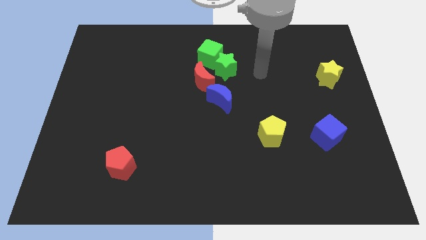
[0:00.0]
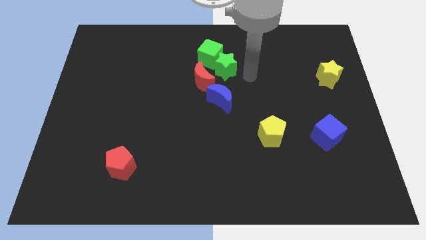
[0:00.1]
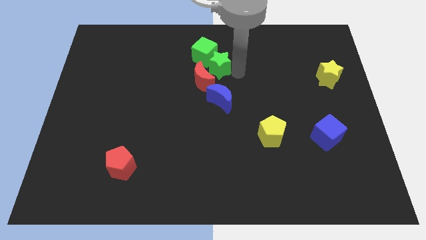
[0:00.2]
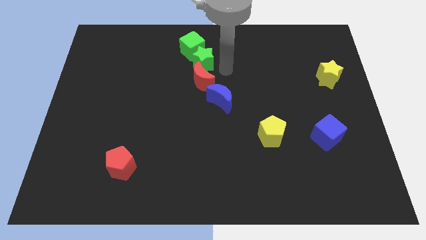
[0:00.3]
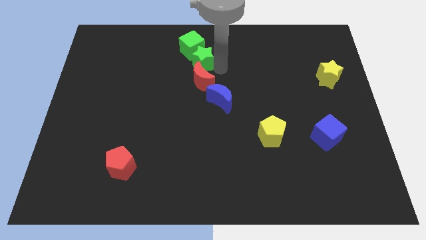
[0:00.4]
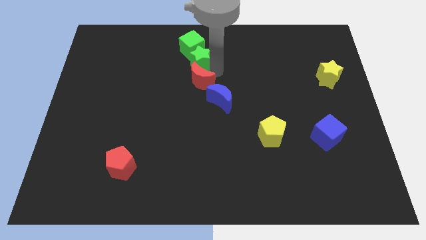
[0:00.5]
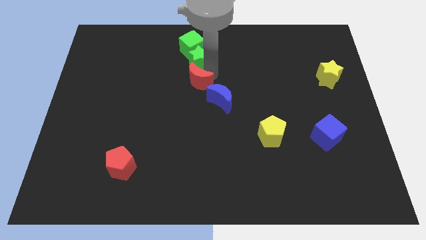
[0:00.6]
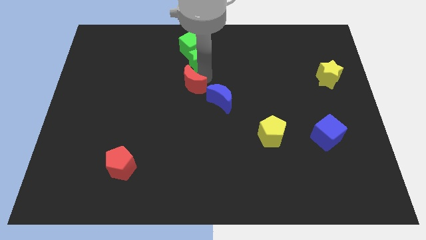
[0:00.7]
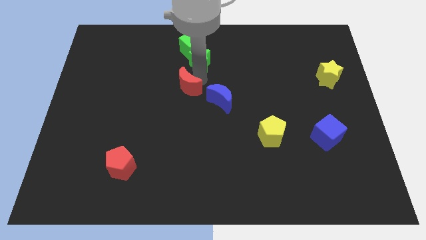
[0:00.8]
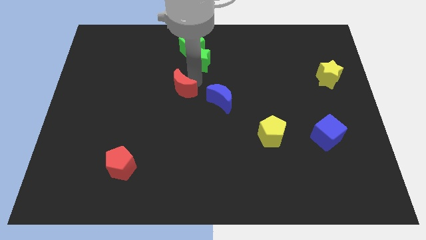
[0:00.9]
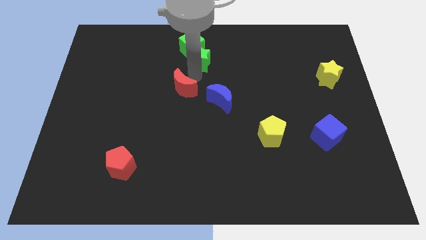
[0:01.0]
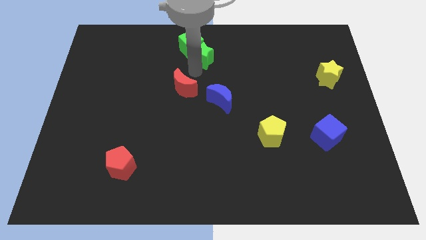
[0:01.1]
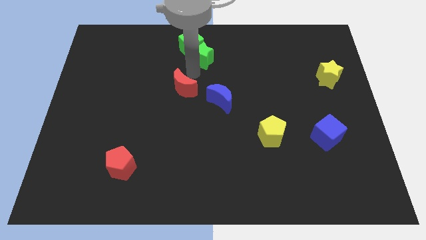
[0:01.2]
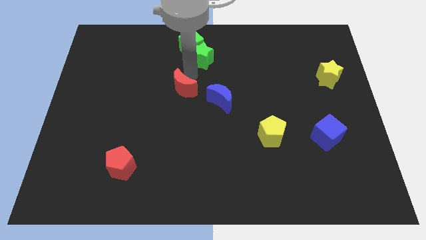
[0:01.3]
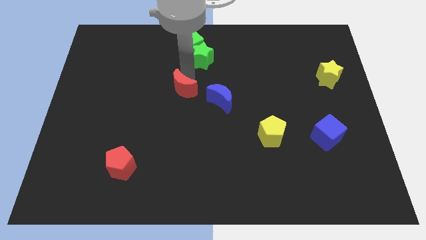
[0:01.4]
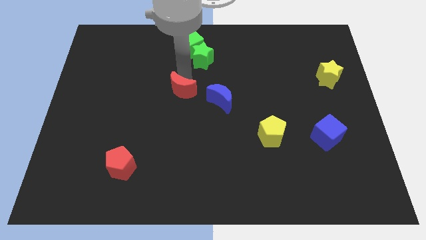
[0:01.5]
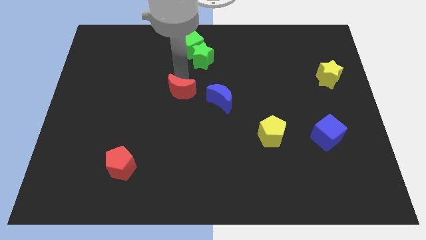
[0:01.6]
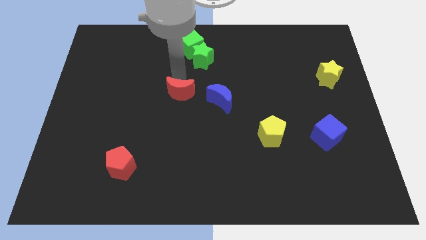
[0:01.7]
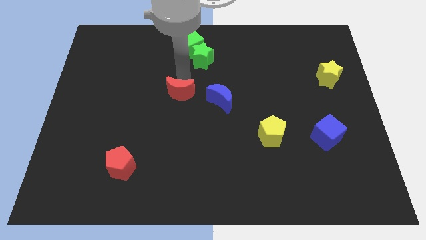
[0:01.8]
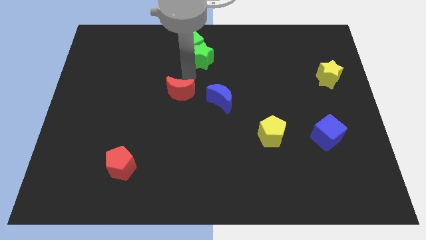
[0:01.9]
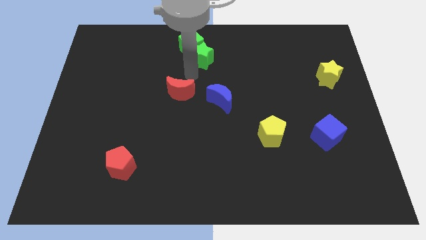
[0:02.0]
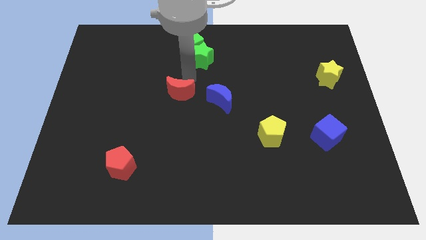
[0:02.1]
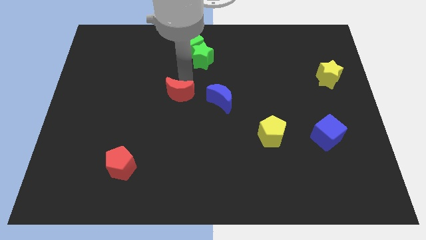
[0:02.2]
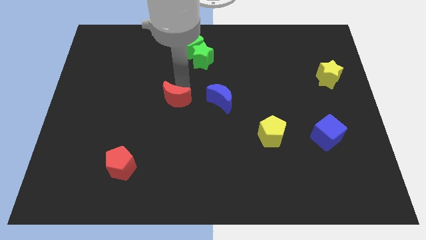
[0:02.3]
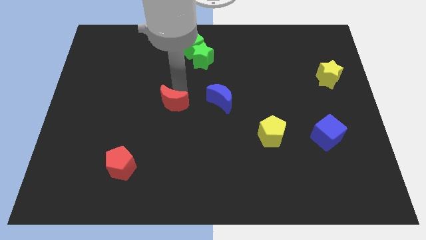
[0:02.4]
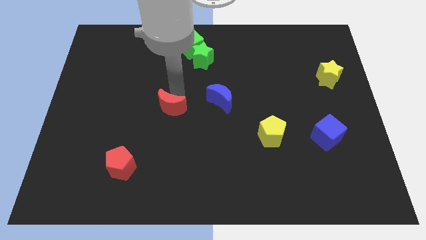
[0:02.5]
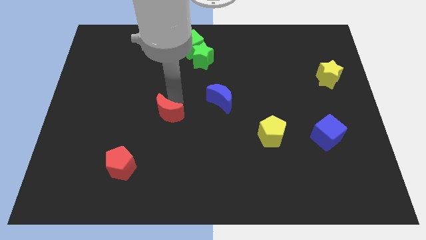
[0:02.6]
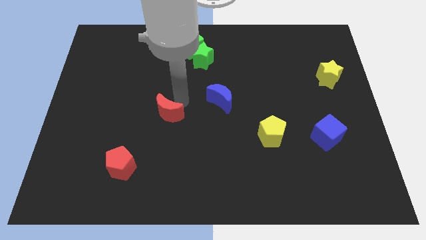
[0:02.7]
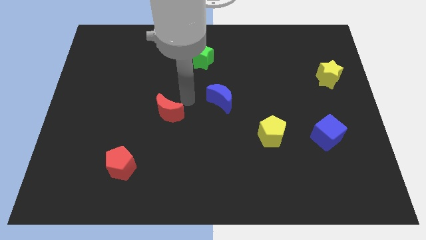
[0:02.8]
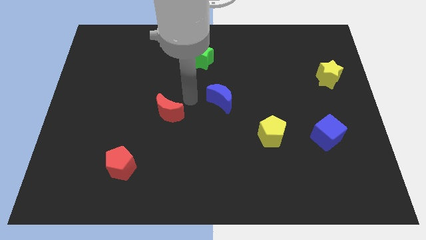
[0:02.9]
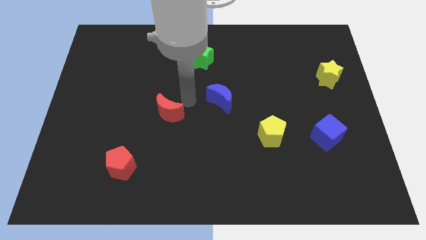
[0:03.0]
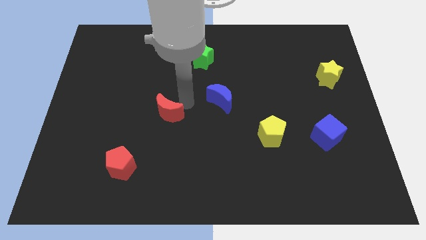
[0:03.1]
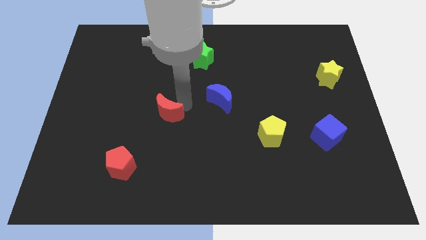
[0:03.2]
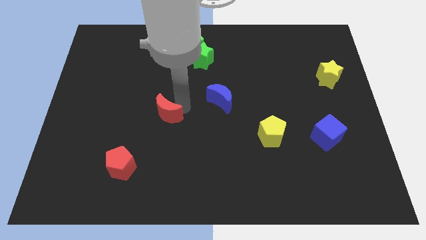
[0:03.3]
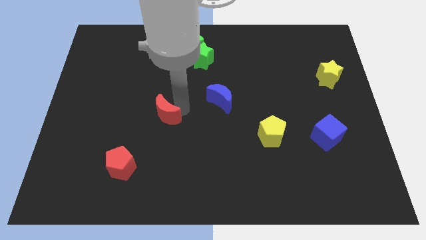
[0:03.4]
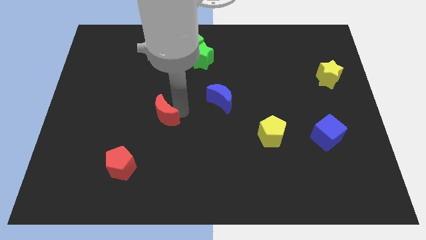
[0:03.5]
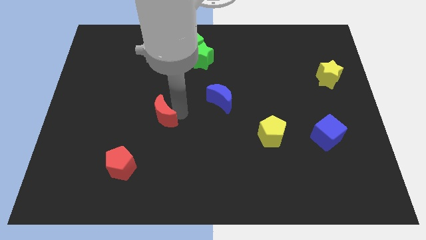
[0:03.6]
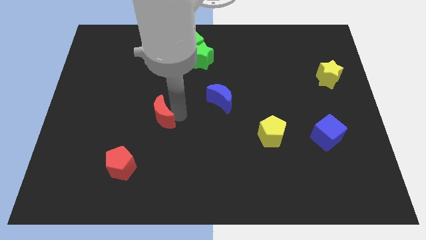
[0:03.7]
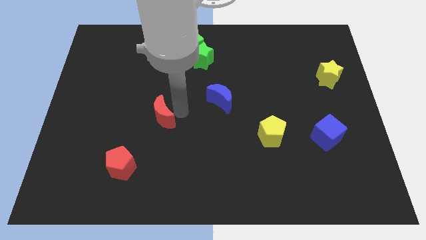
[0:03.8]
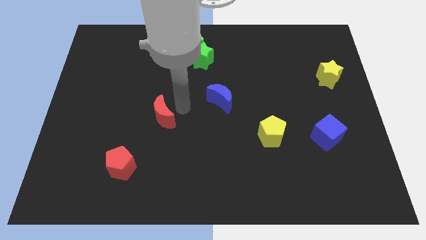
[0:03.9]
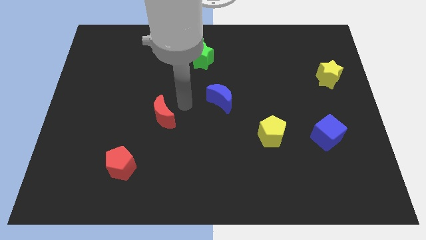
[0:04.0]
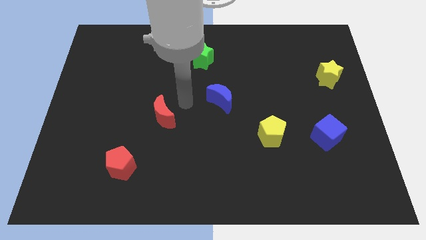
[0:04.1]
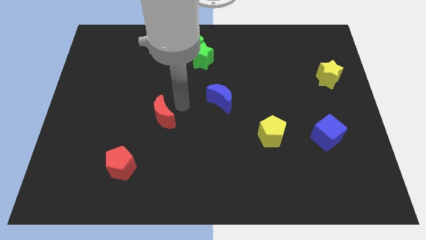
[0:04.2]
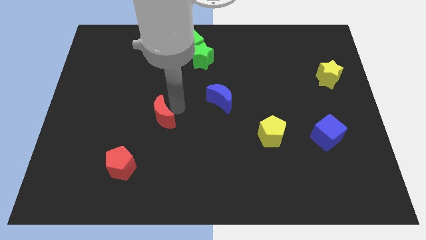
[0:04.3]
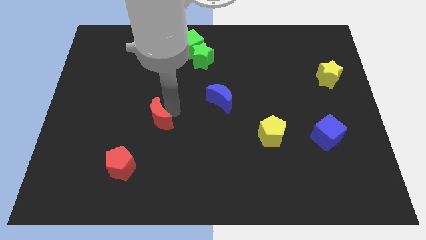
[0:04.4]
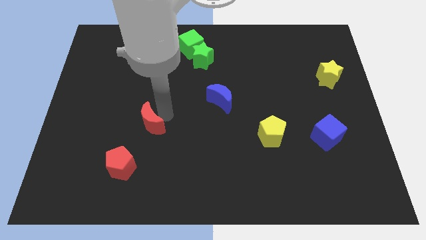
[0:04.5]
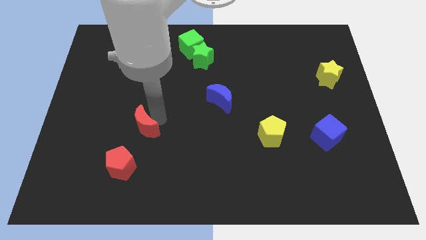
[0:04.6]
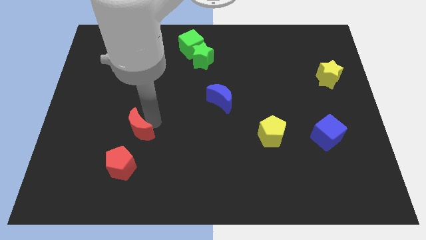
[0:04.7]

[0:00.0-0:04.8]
move the red moon downwards and then left

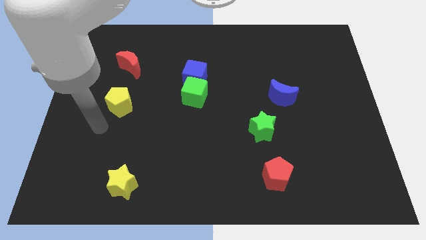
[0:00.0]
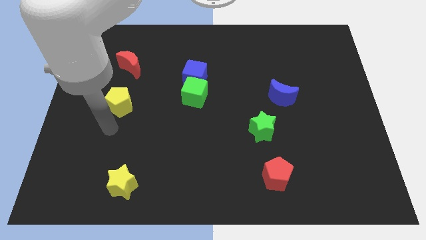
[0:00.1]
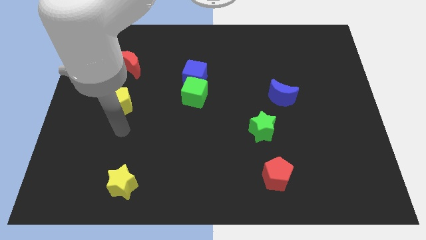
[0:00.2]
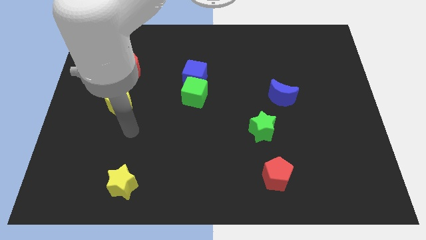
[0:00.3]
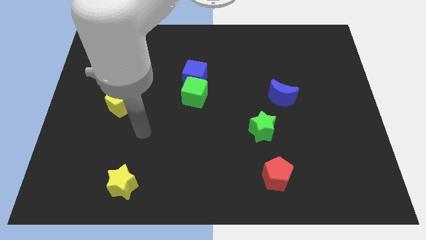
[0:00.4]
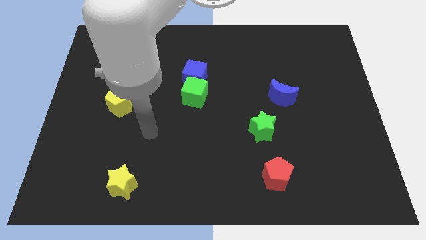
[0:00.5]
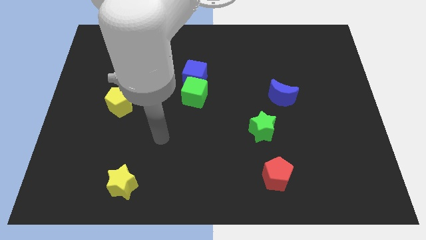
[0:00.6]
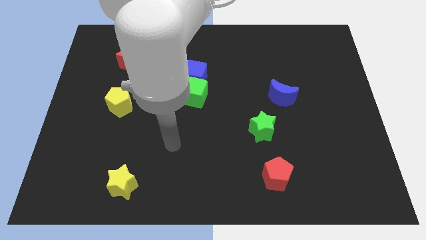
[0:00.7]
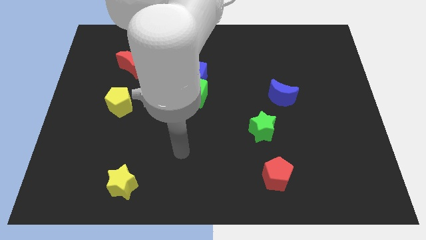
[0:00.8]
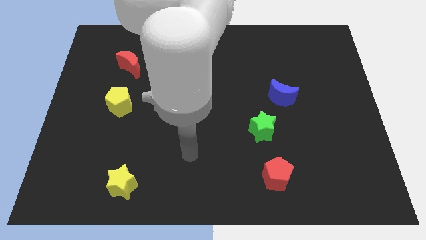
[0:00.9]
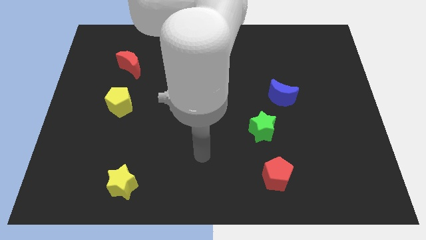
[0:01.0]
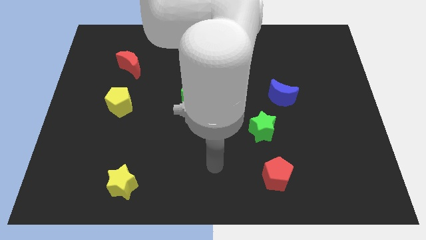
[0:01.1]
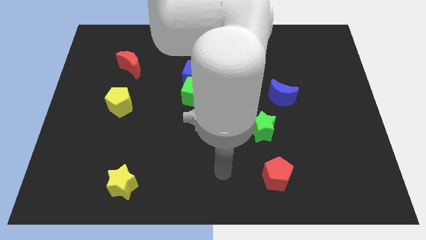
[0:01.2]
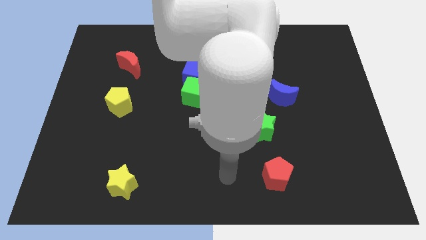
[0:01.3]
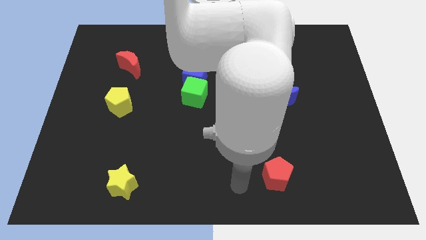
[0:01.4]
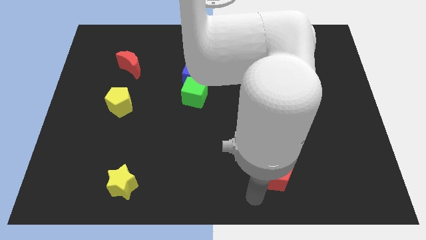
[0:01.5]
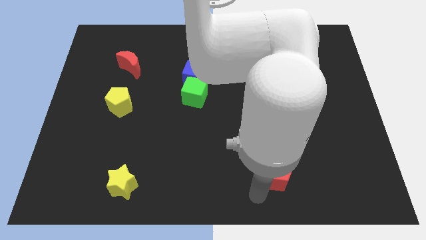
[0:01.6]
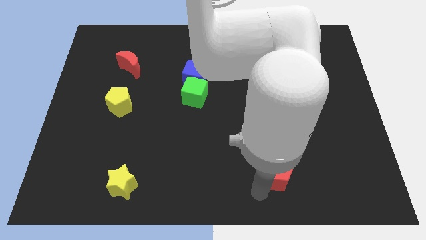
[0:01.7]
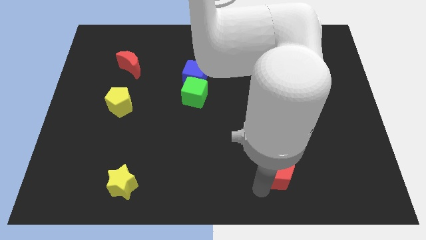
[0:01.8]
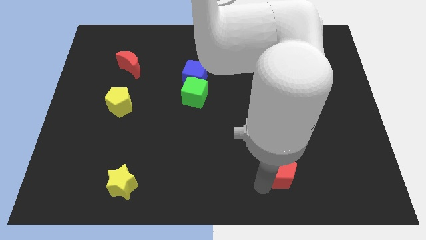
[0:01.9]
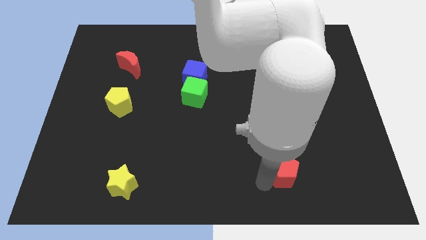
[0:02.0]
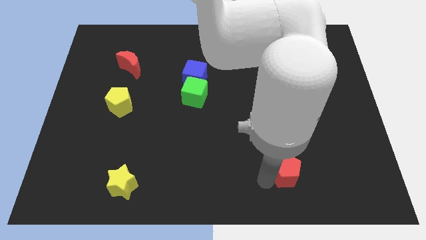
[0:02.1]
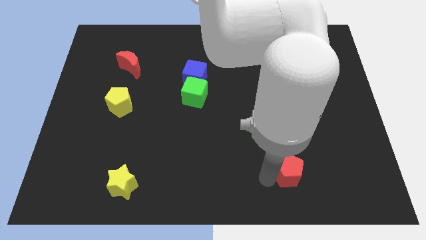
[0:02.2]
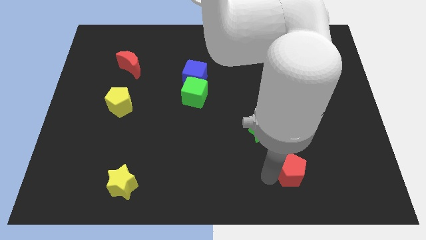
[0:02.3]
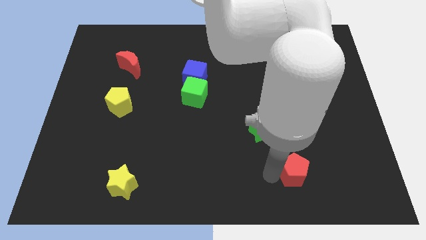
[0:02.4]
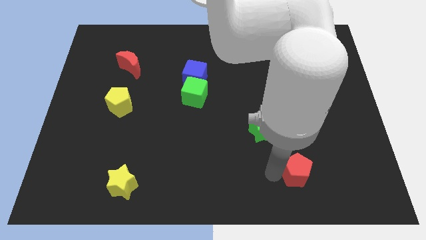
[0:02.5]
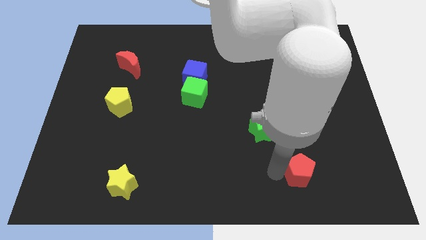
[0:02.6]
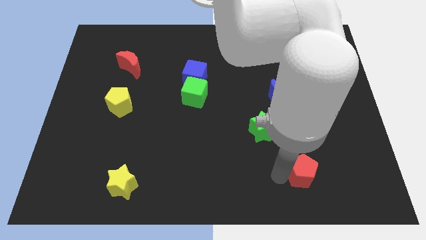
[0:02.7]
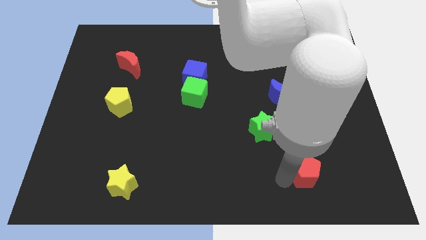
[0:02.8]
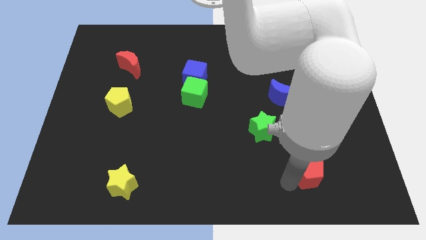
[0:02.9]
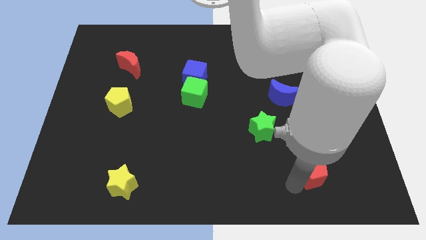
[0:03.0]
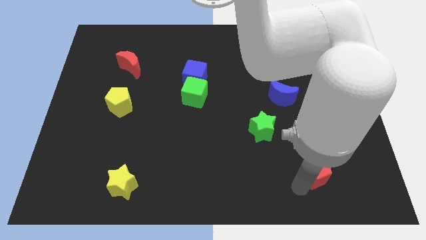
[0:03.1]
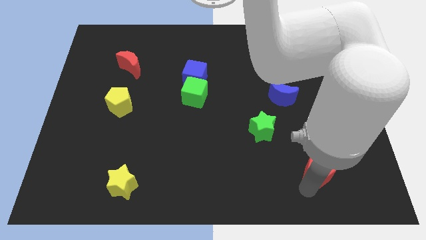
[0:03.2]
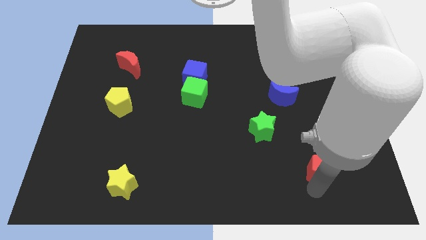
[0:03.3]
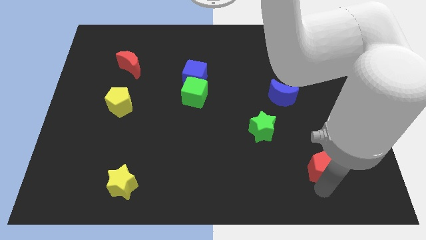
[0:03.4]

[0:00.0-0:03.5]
slightly move the red pentagon upwards and to the right diagonally
